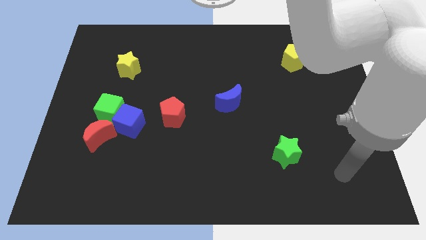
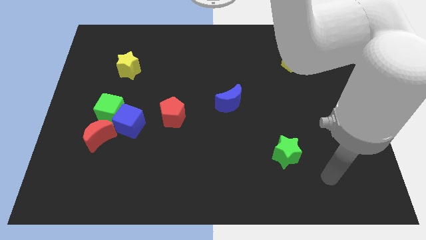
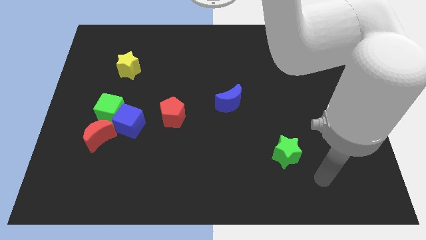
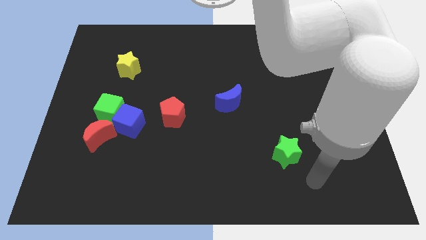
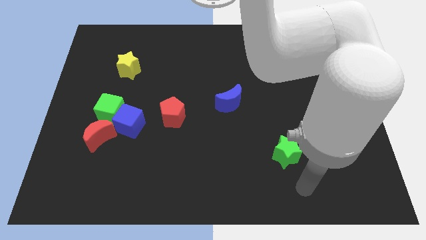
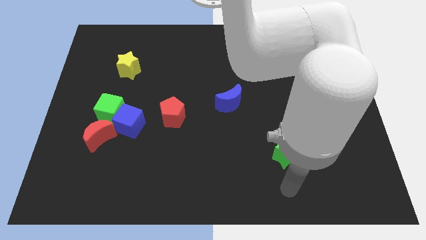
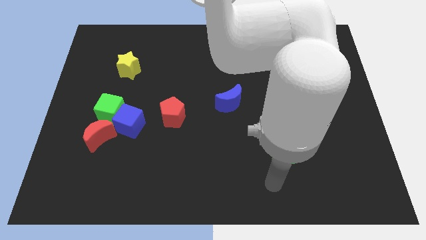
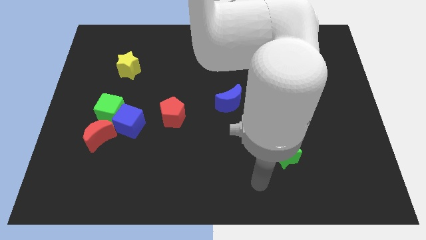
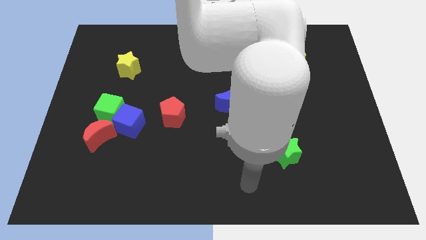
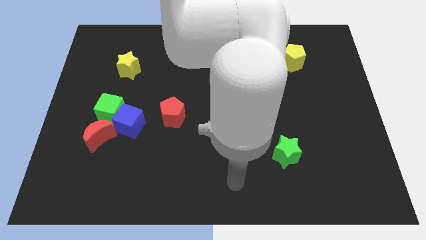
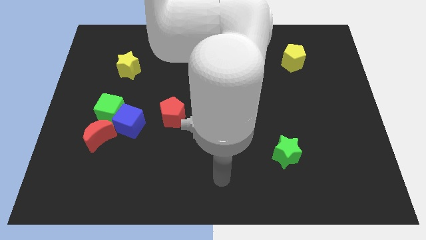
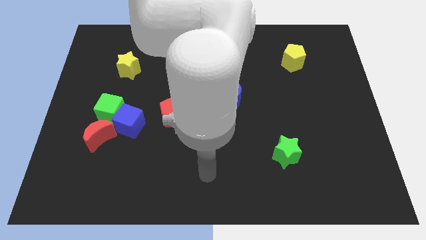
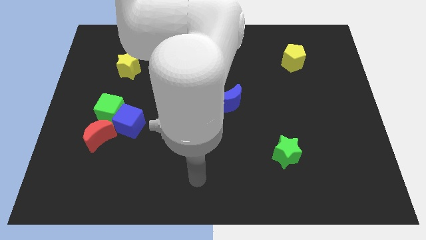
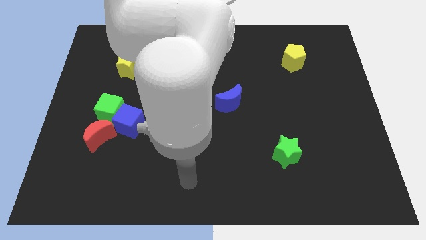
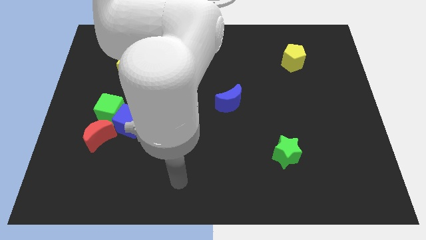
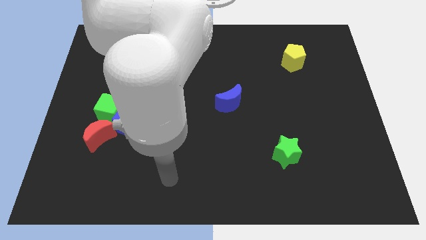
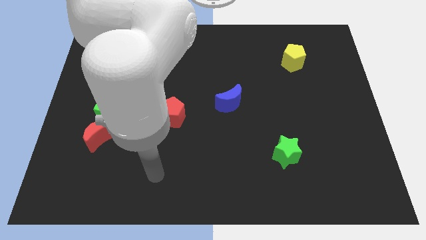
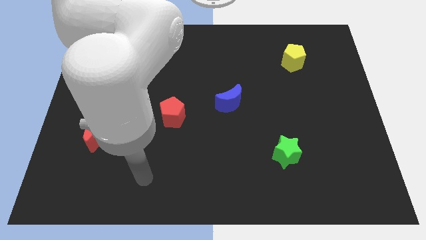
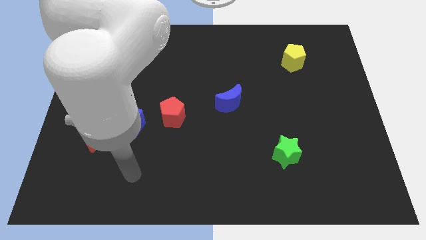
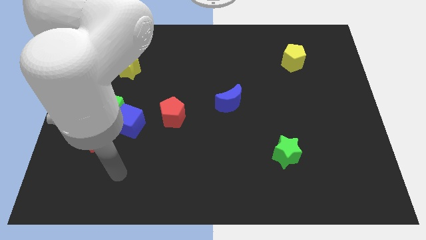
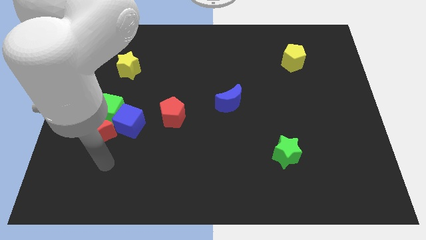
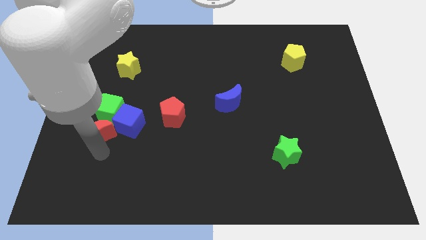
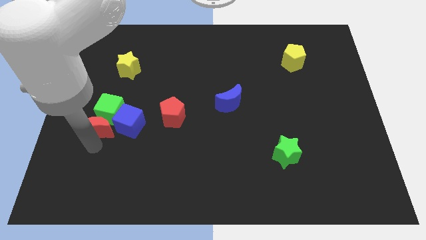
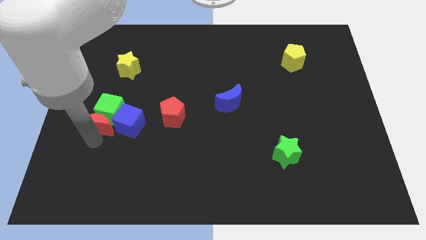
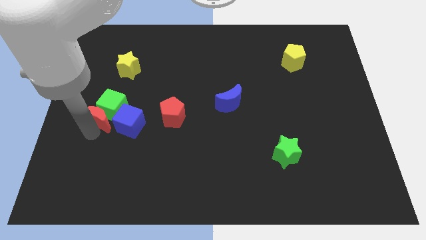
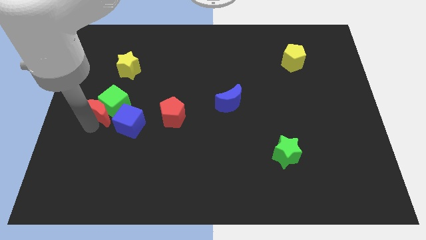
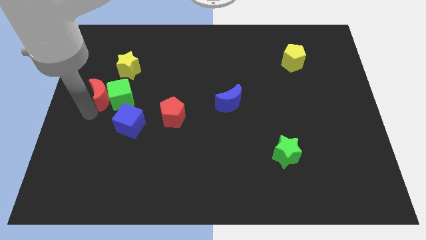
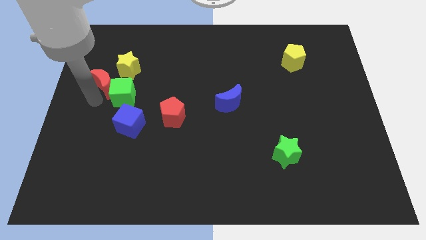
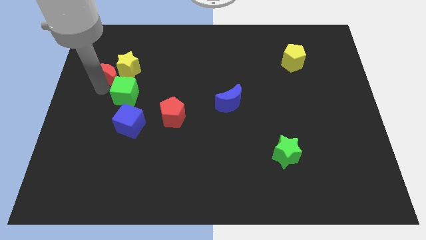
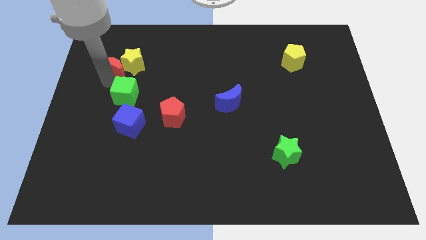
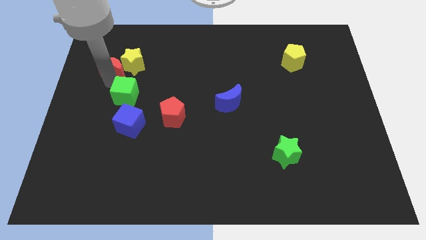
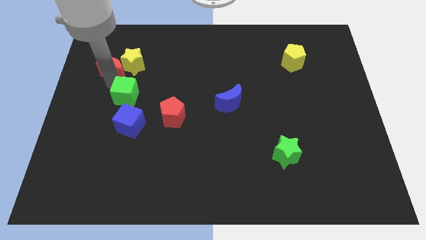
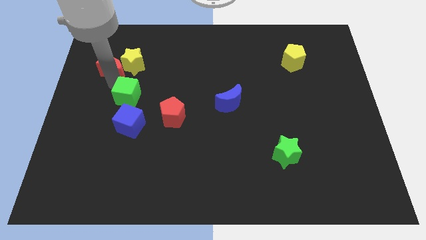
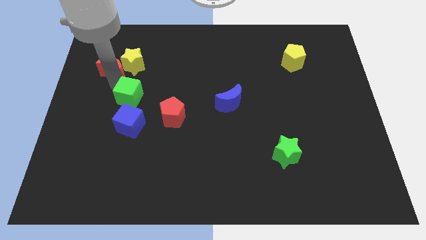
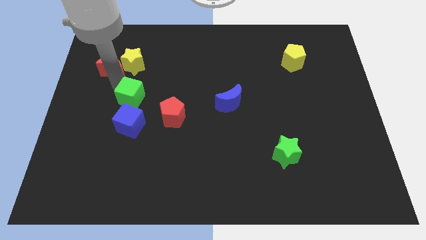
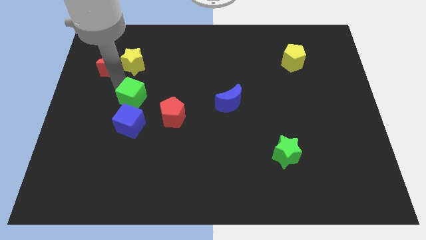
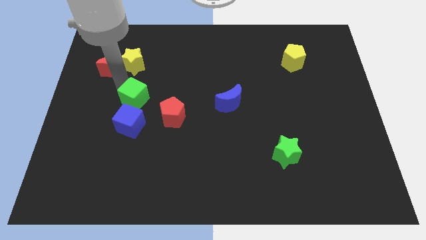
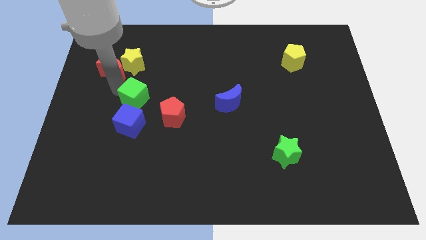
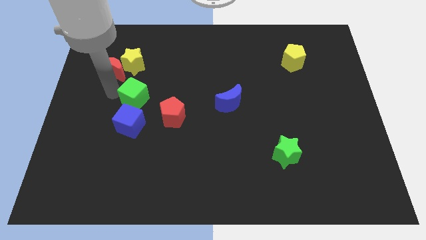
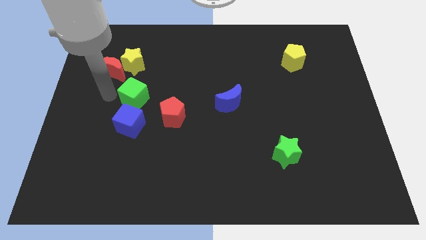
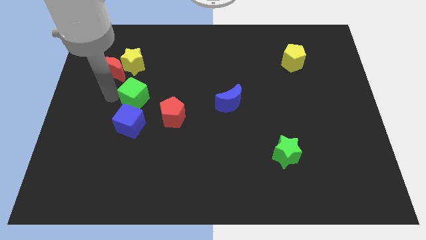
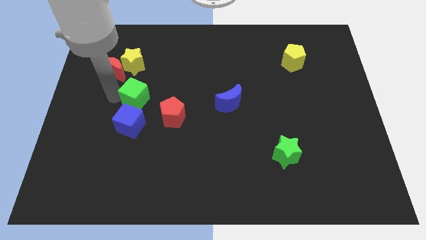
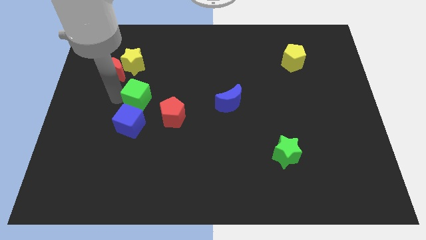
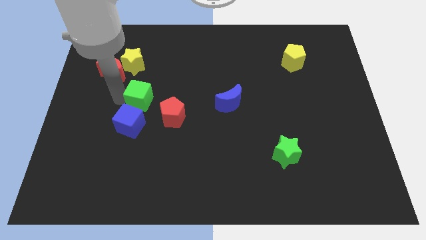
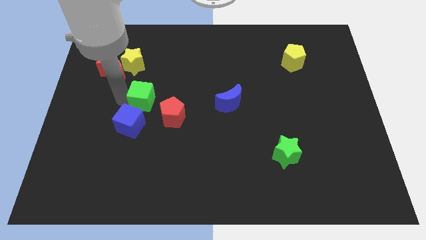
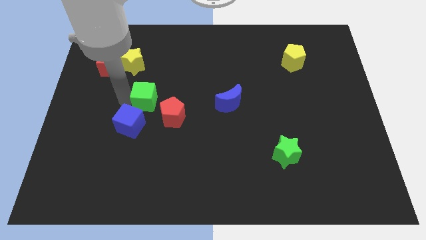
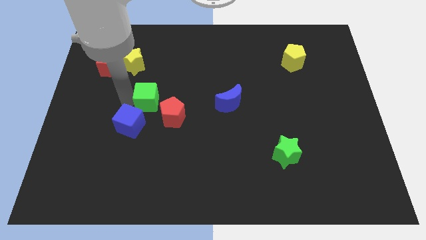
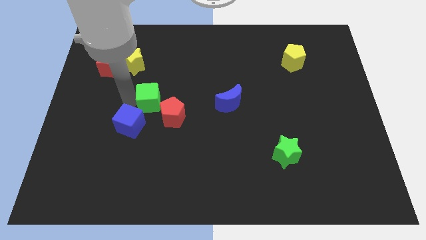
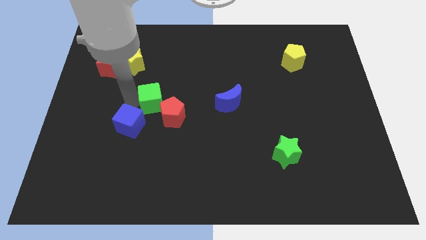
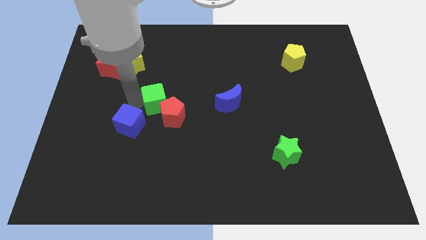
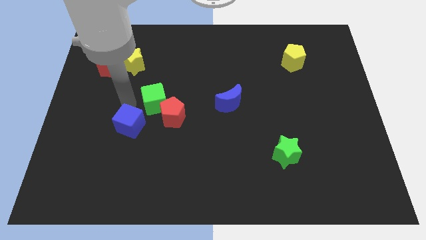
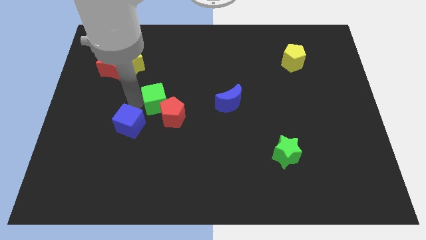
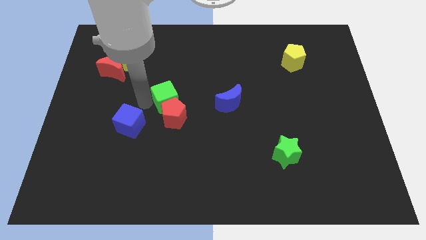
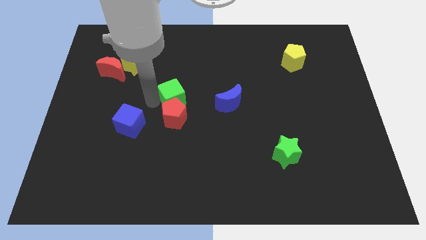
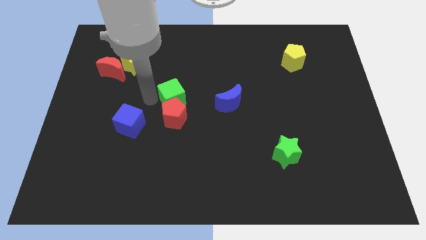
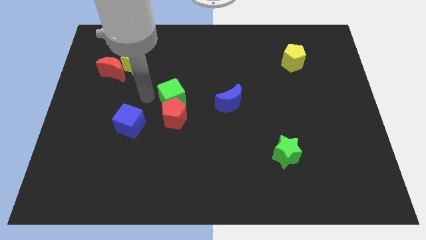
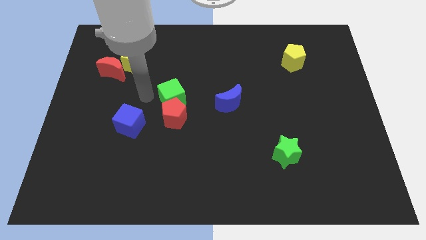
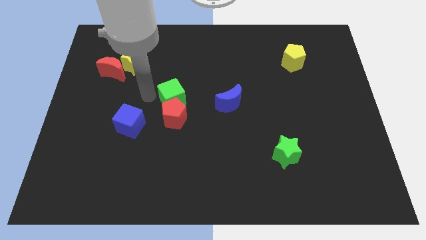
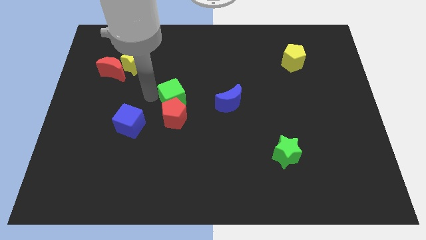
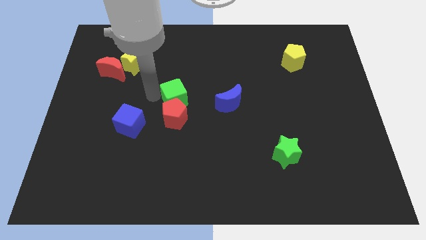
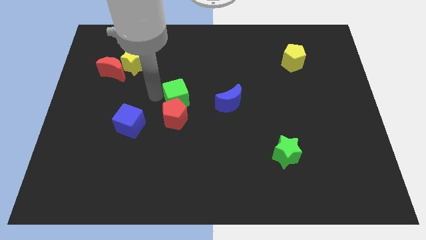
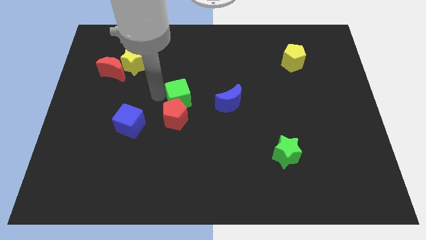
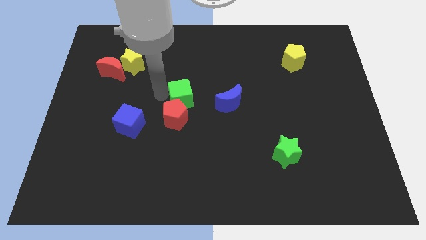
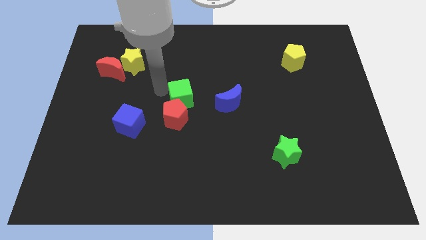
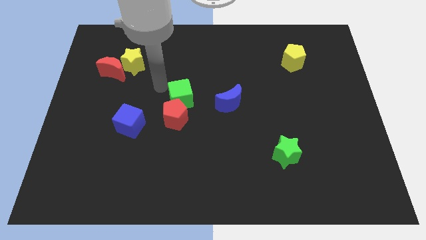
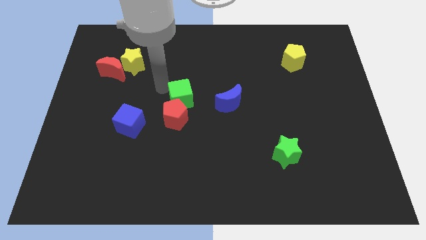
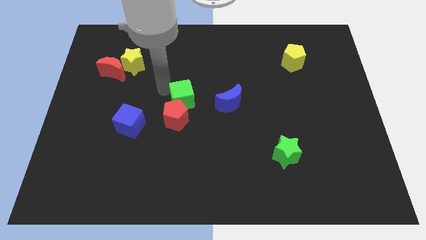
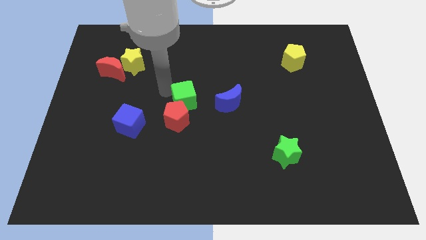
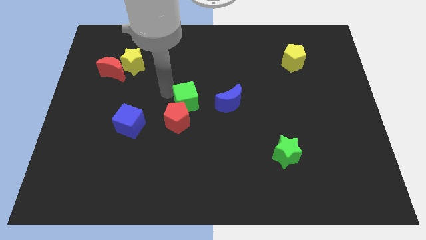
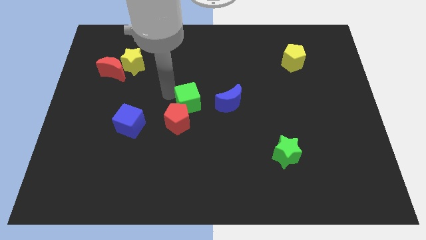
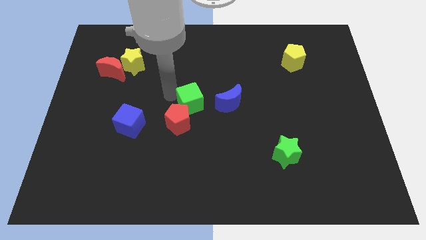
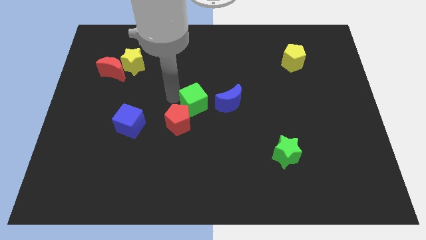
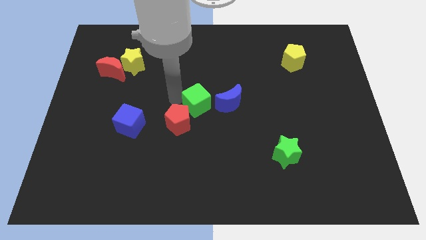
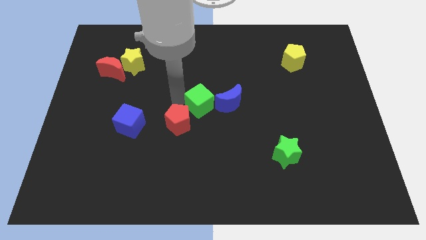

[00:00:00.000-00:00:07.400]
move the green cube right
